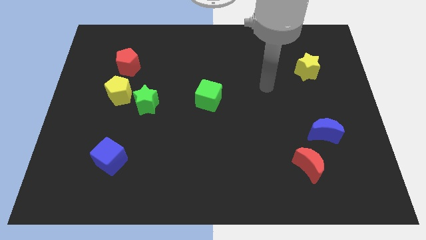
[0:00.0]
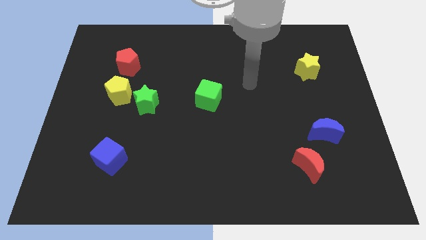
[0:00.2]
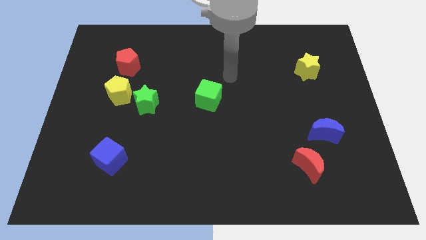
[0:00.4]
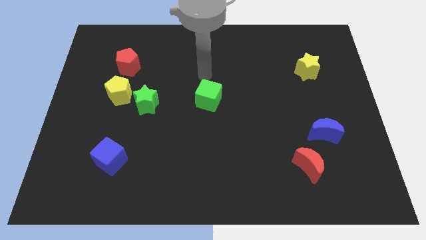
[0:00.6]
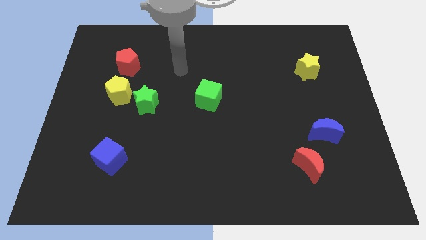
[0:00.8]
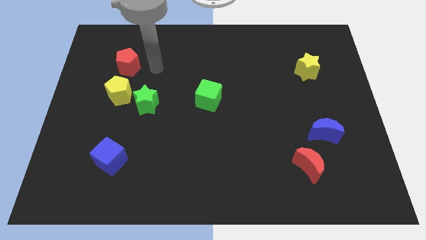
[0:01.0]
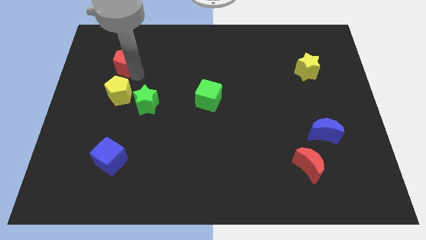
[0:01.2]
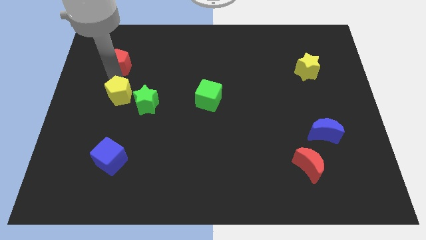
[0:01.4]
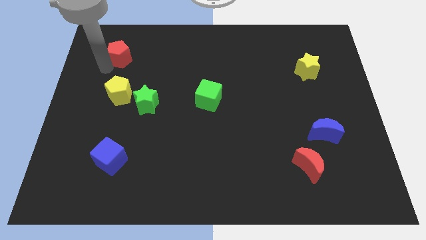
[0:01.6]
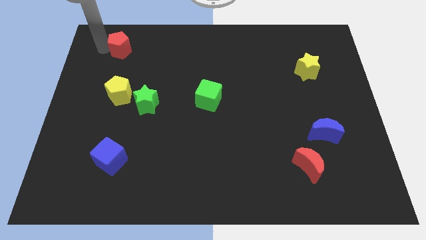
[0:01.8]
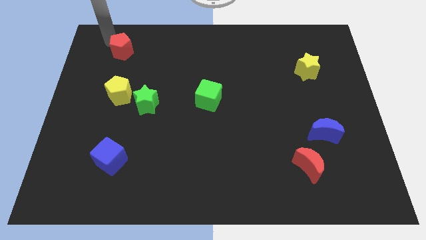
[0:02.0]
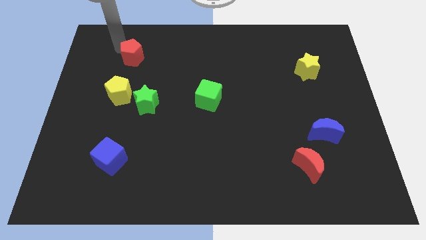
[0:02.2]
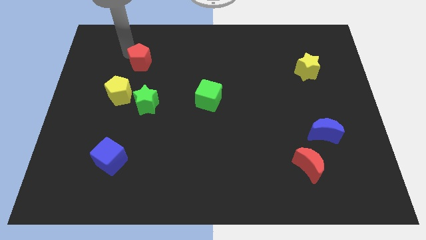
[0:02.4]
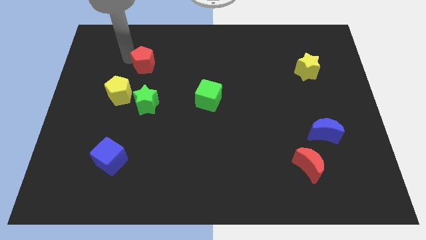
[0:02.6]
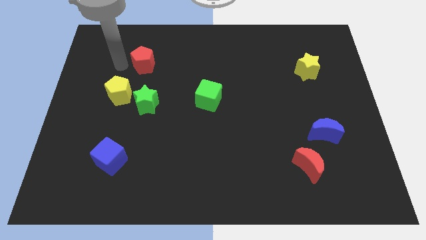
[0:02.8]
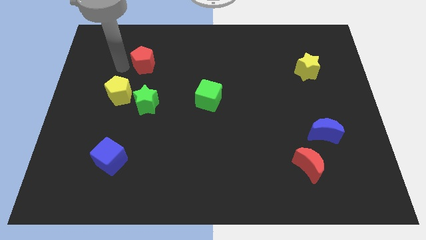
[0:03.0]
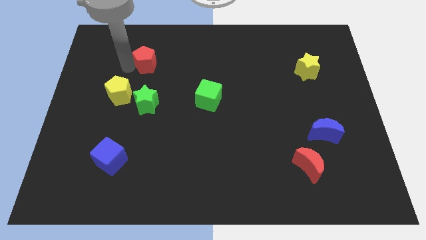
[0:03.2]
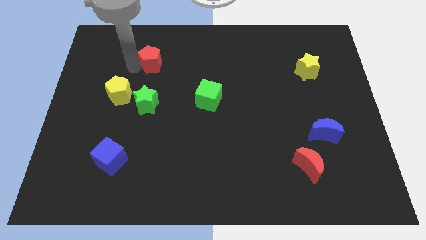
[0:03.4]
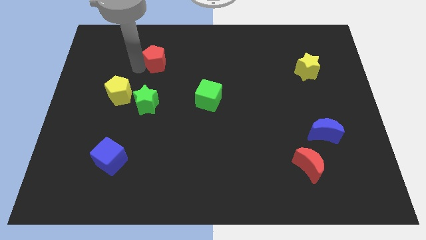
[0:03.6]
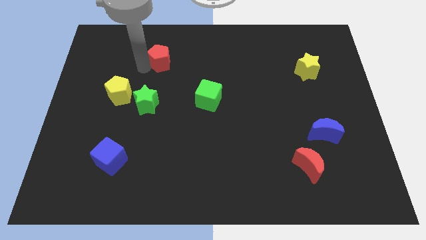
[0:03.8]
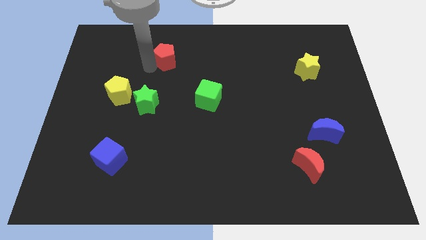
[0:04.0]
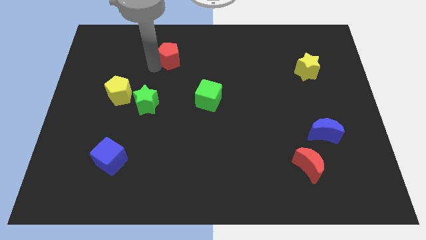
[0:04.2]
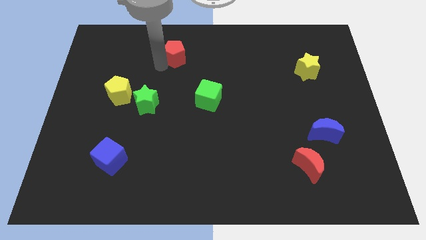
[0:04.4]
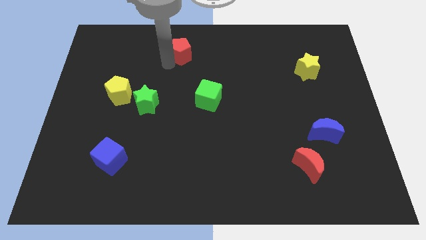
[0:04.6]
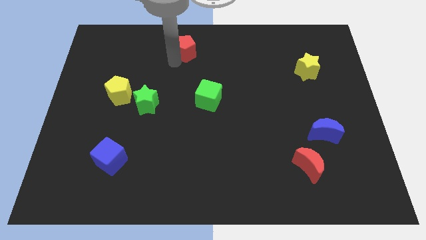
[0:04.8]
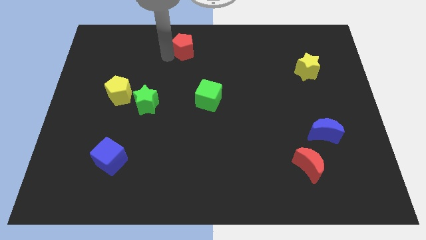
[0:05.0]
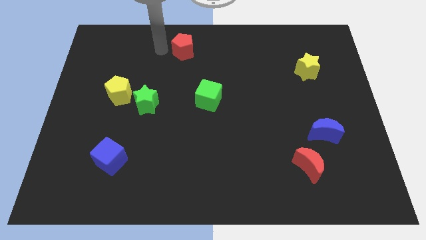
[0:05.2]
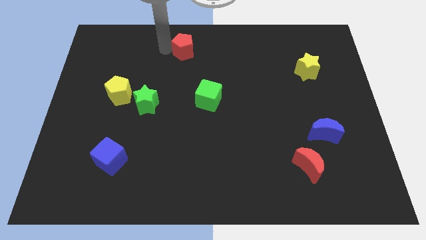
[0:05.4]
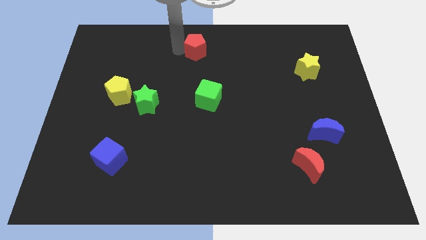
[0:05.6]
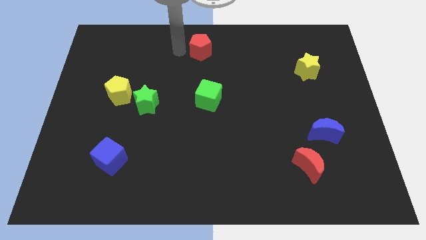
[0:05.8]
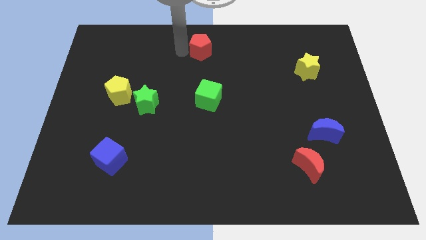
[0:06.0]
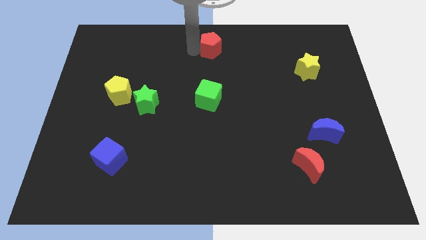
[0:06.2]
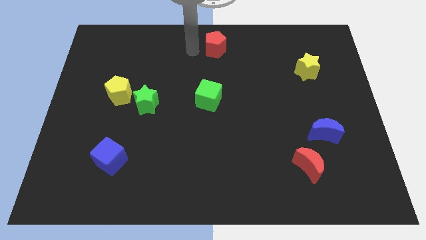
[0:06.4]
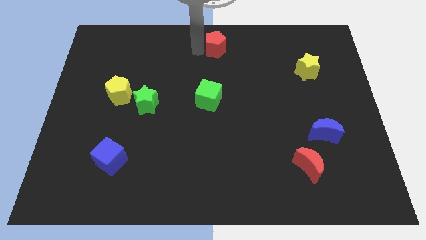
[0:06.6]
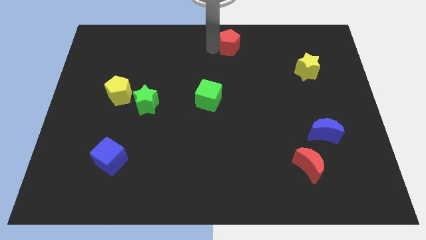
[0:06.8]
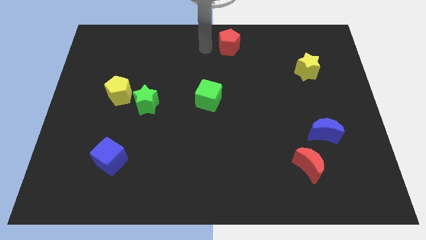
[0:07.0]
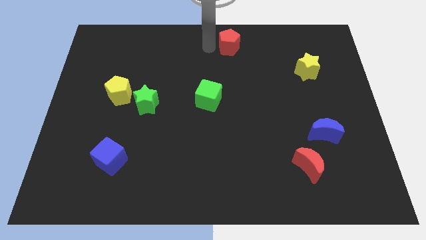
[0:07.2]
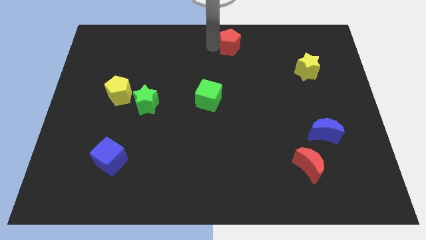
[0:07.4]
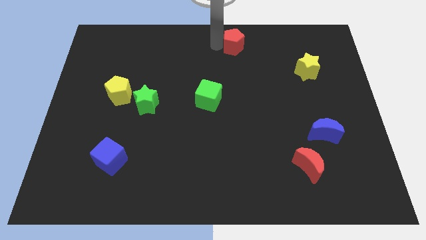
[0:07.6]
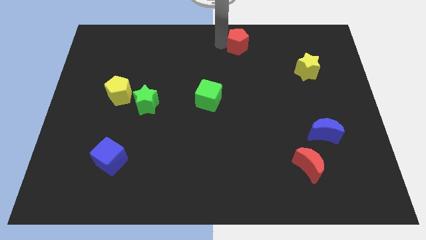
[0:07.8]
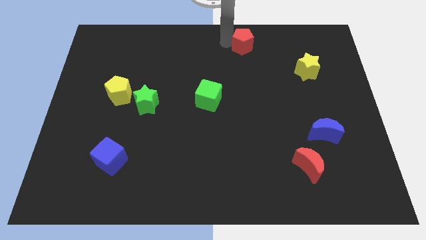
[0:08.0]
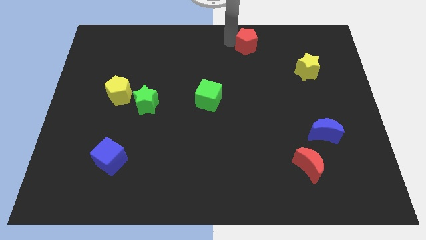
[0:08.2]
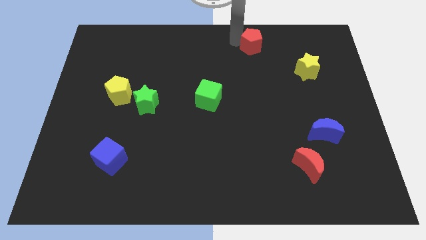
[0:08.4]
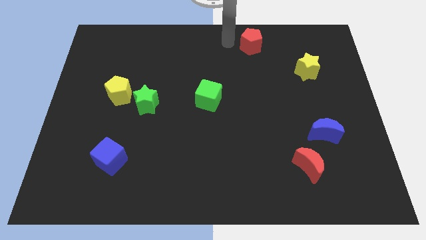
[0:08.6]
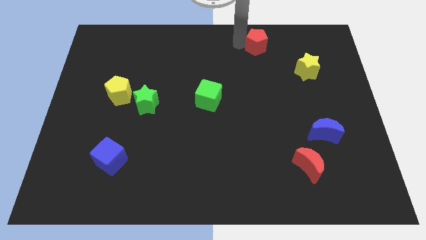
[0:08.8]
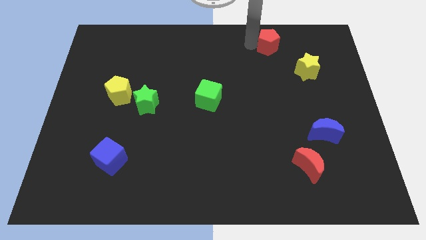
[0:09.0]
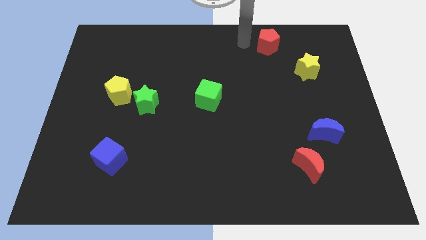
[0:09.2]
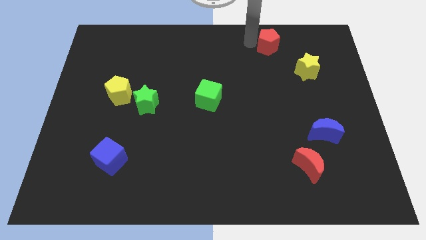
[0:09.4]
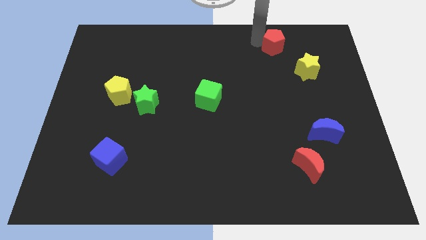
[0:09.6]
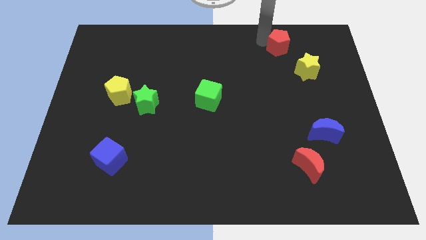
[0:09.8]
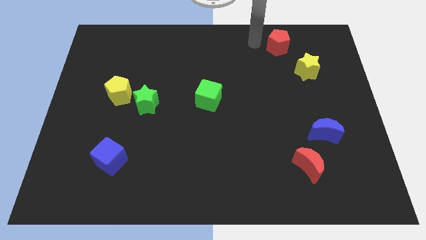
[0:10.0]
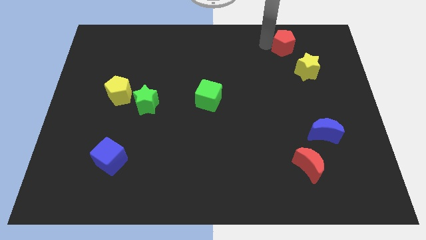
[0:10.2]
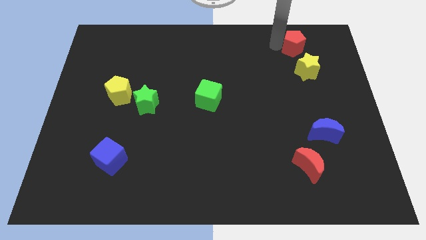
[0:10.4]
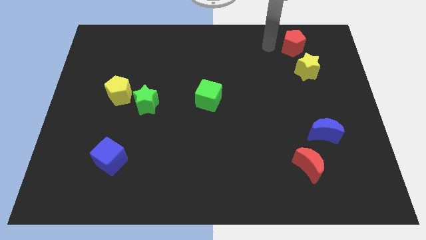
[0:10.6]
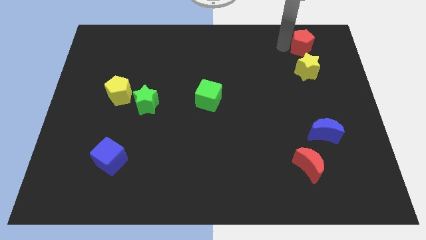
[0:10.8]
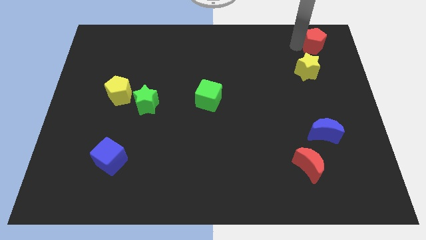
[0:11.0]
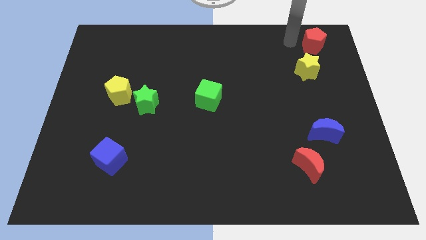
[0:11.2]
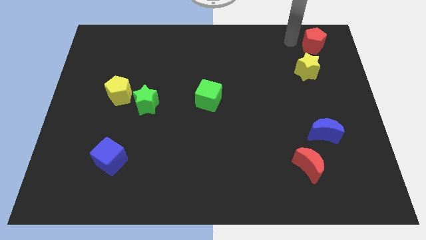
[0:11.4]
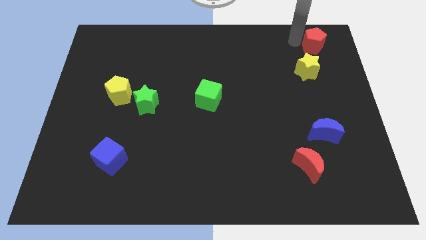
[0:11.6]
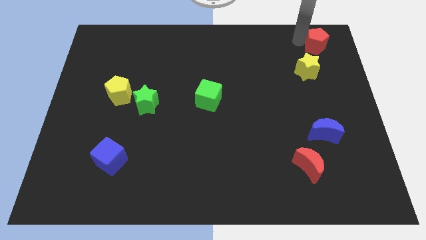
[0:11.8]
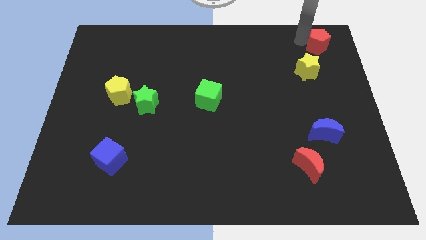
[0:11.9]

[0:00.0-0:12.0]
put the red pentagon to the top right corner
